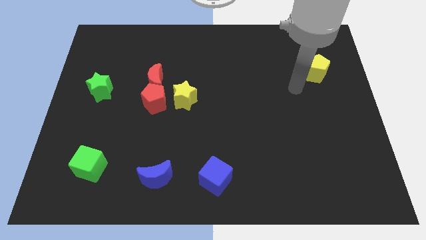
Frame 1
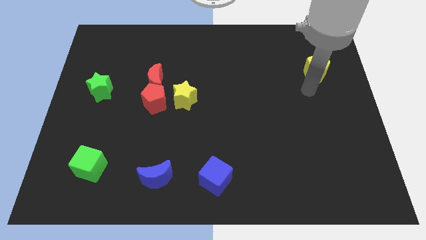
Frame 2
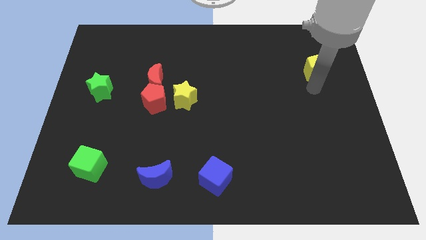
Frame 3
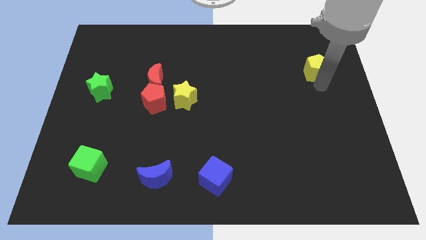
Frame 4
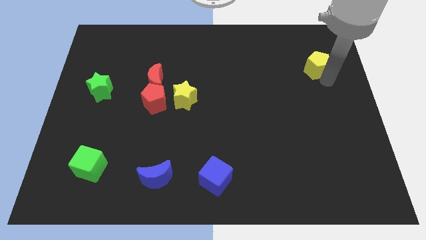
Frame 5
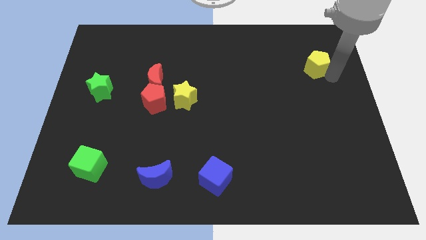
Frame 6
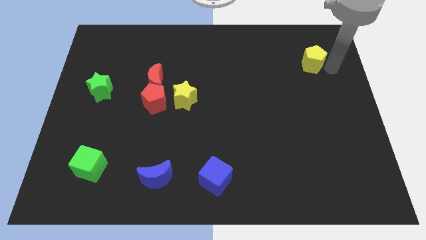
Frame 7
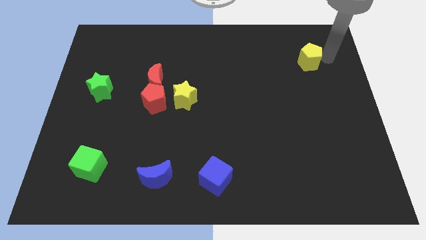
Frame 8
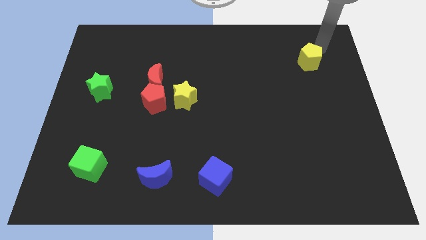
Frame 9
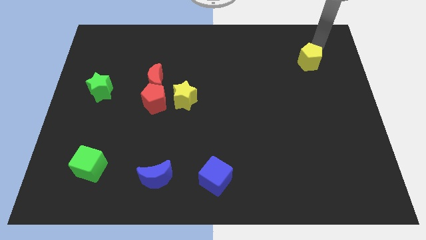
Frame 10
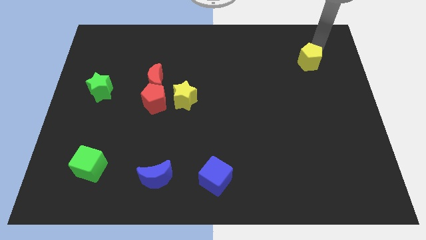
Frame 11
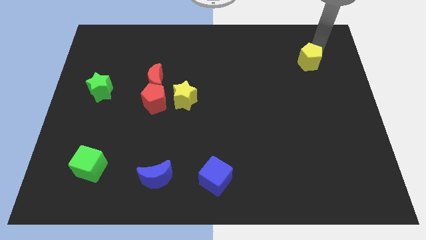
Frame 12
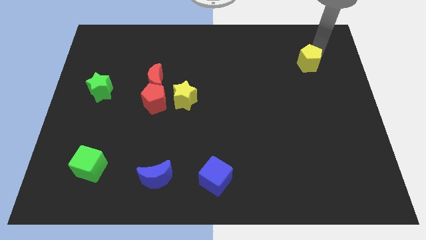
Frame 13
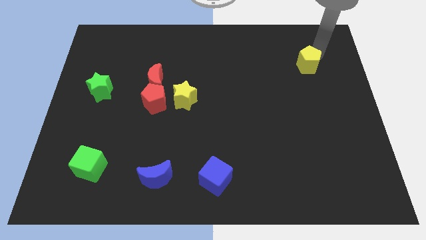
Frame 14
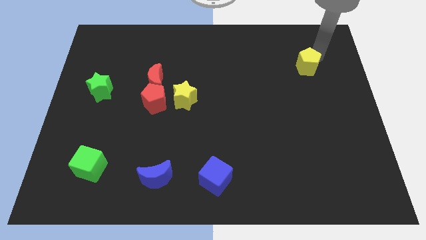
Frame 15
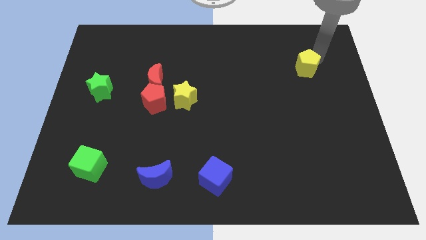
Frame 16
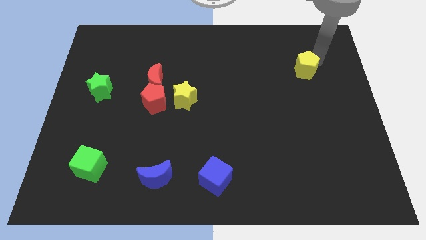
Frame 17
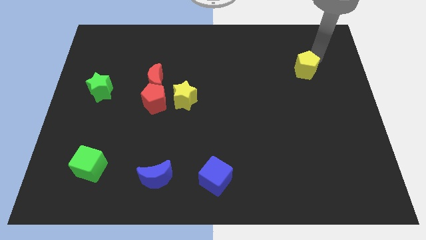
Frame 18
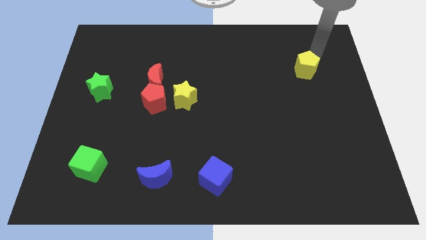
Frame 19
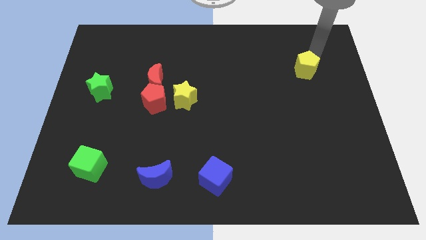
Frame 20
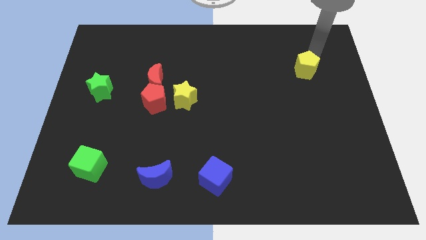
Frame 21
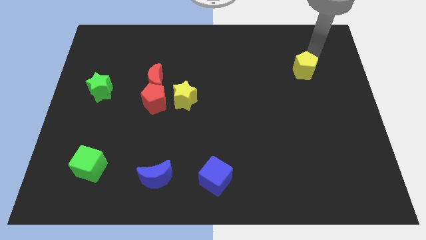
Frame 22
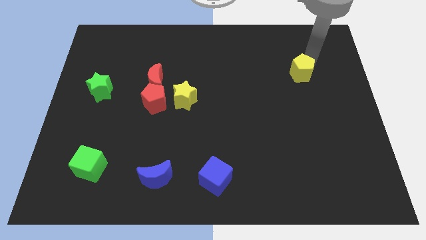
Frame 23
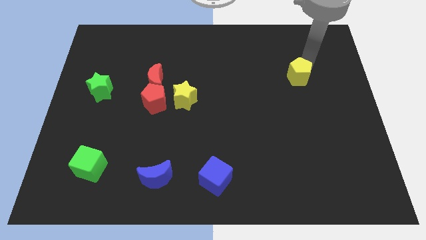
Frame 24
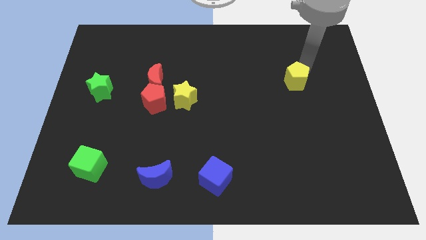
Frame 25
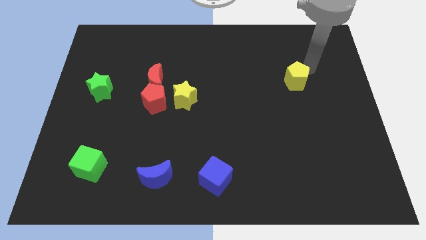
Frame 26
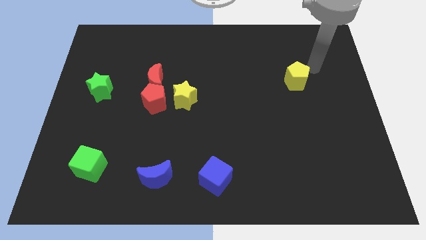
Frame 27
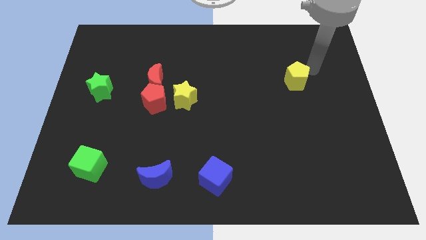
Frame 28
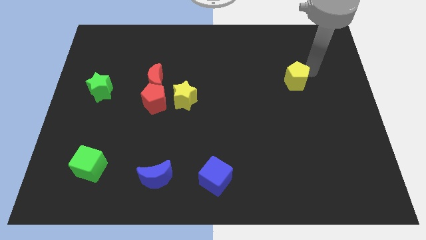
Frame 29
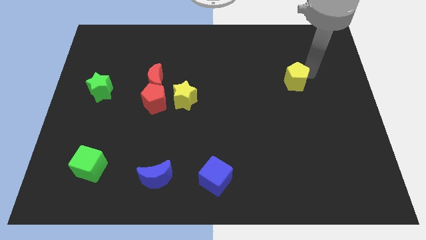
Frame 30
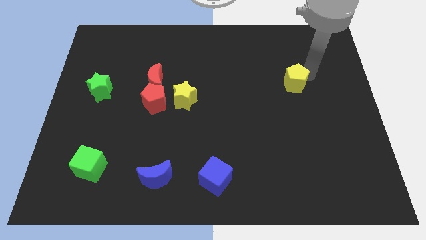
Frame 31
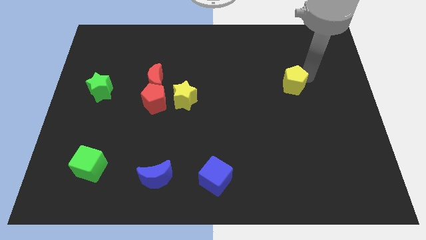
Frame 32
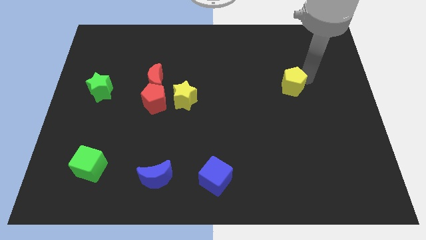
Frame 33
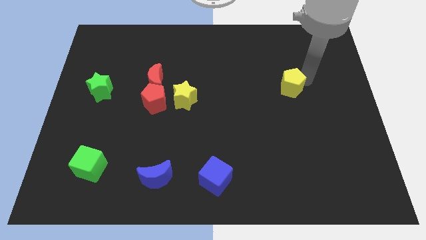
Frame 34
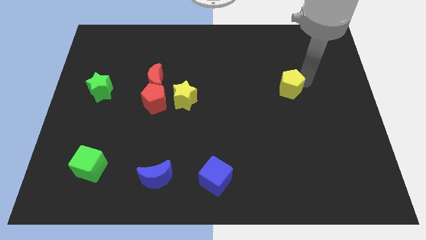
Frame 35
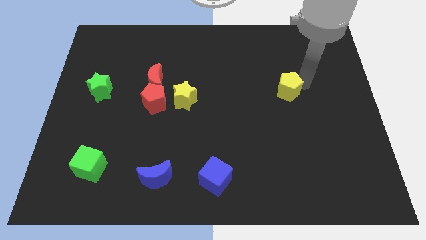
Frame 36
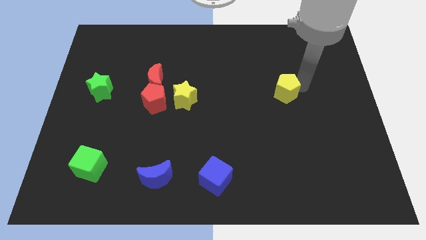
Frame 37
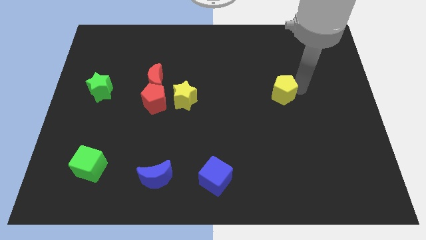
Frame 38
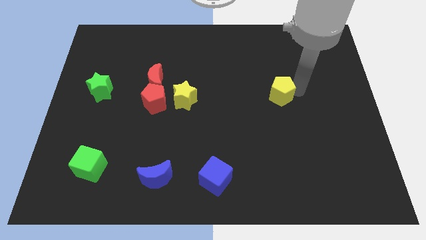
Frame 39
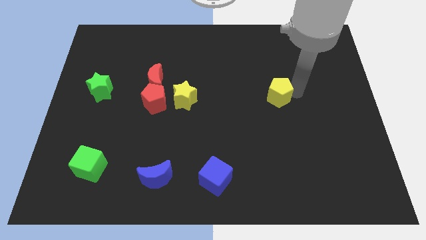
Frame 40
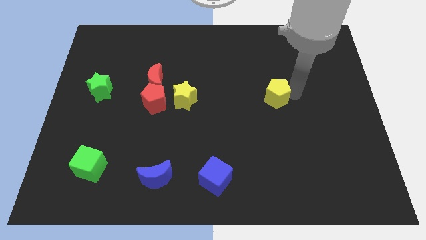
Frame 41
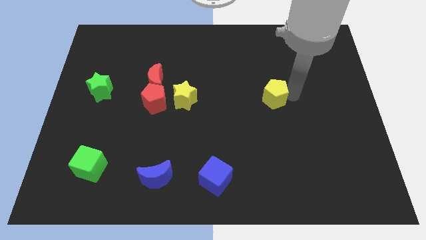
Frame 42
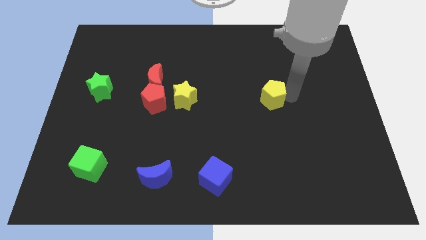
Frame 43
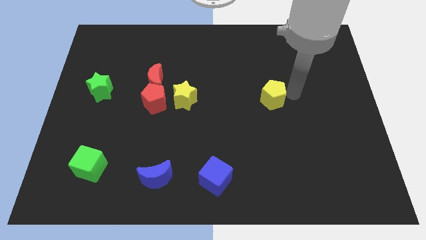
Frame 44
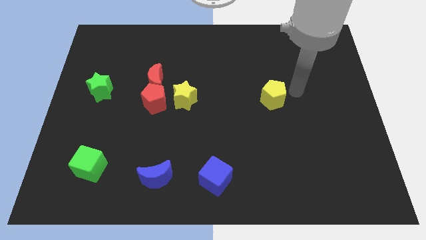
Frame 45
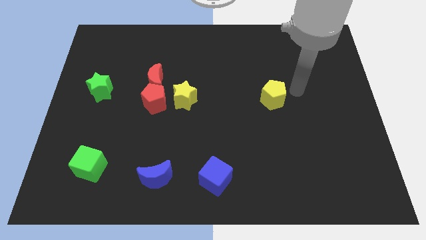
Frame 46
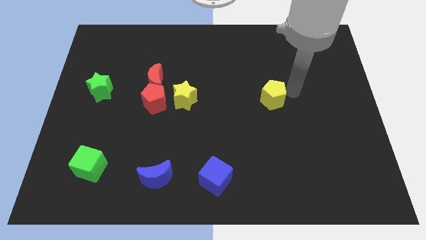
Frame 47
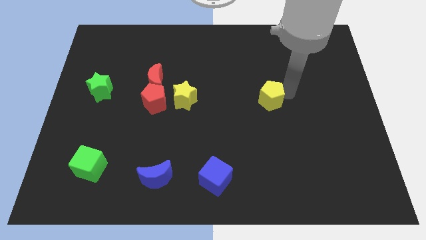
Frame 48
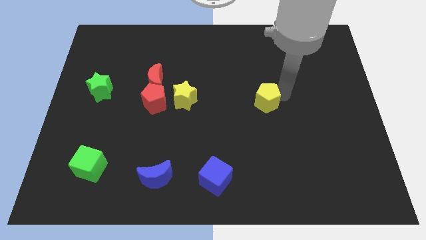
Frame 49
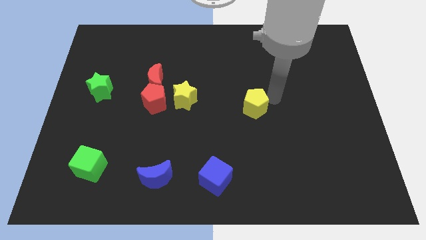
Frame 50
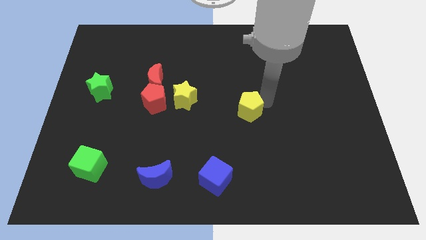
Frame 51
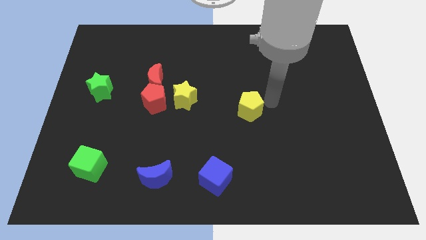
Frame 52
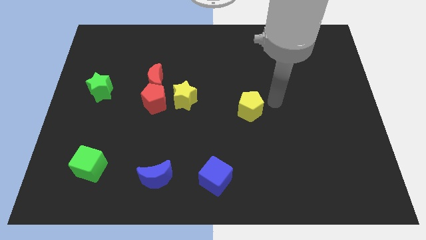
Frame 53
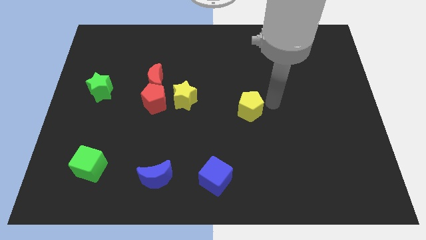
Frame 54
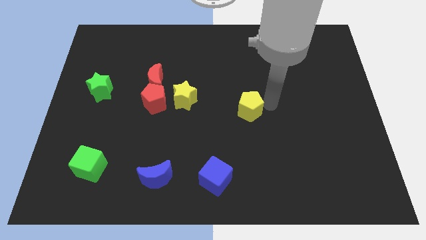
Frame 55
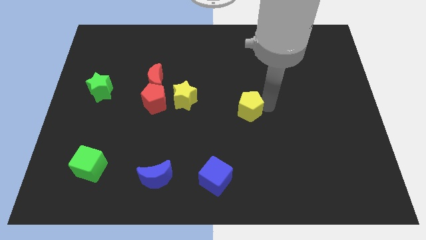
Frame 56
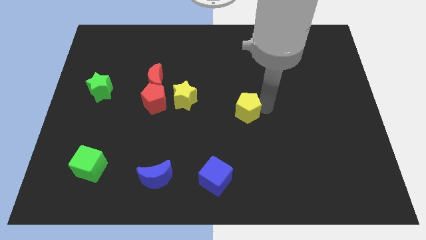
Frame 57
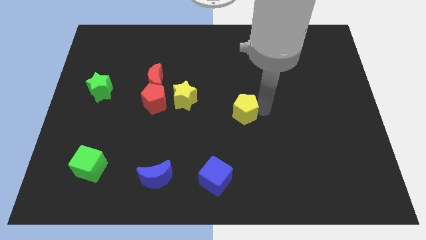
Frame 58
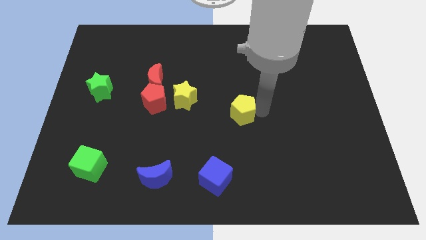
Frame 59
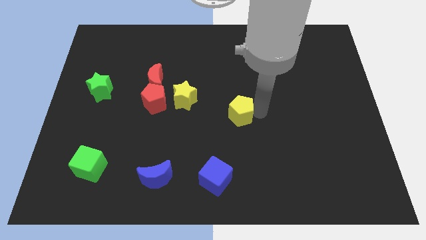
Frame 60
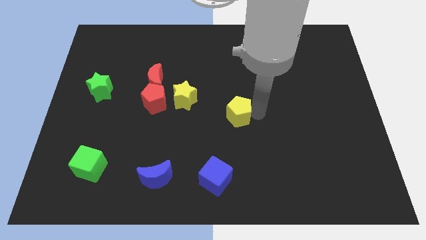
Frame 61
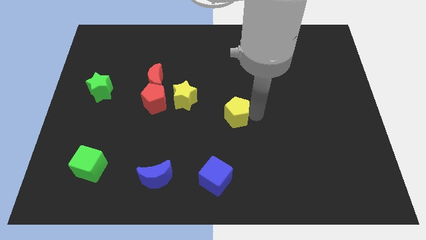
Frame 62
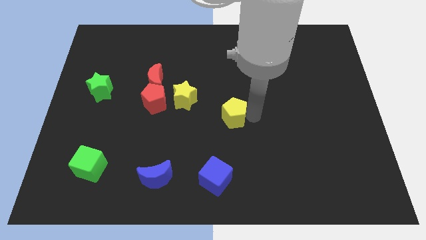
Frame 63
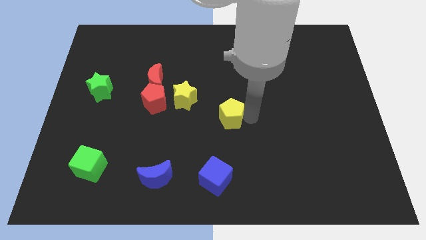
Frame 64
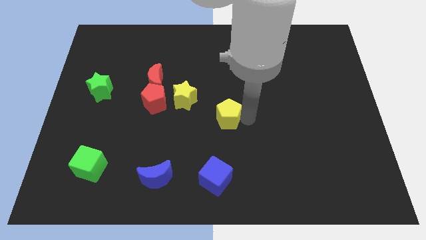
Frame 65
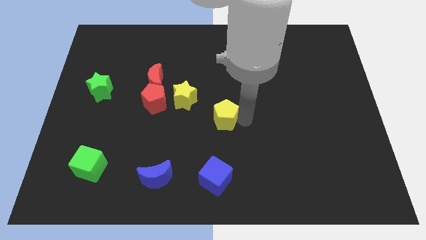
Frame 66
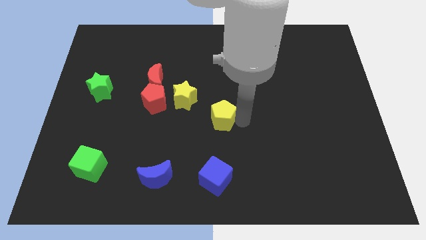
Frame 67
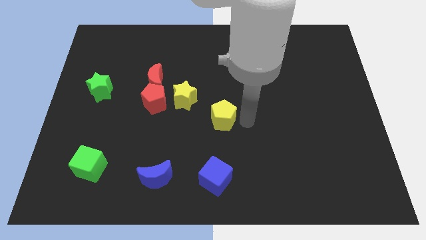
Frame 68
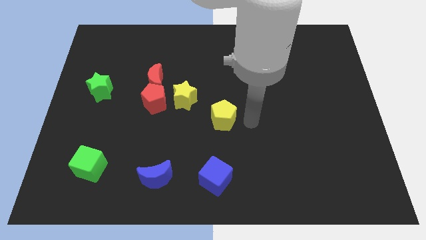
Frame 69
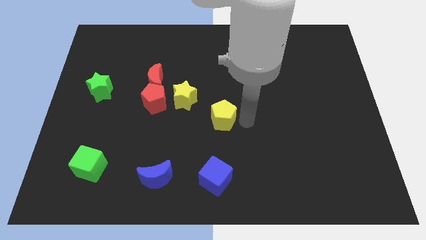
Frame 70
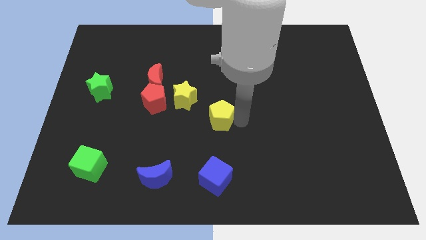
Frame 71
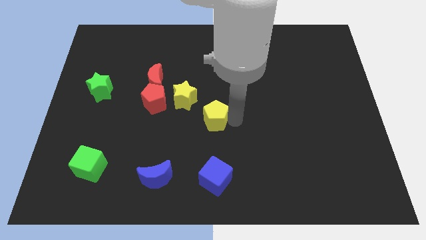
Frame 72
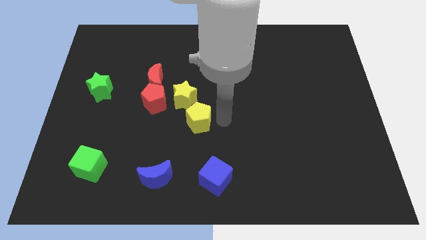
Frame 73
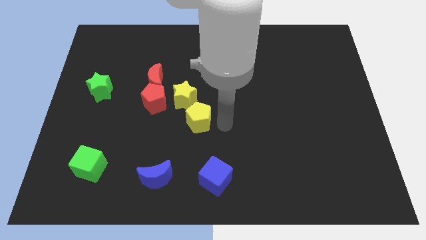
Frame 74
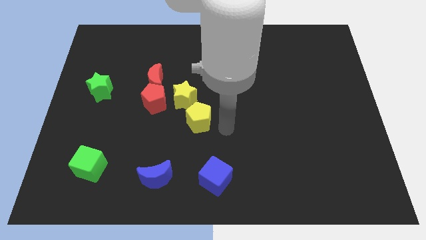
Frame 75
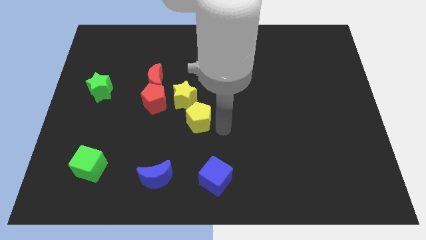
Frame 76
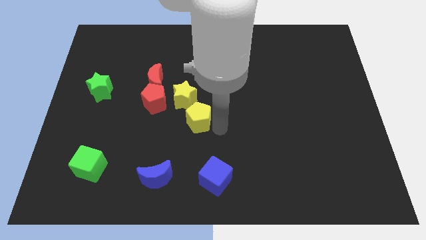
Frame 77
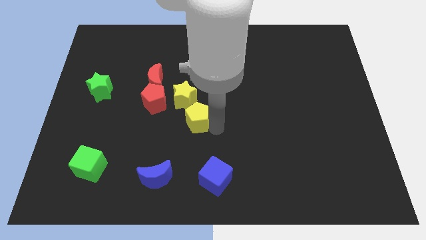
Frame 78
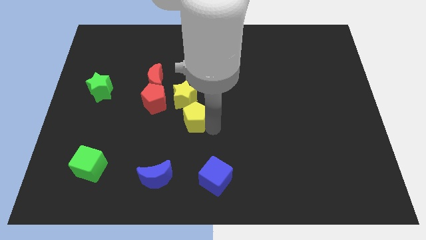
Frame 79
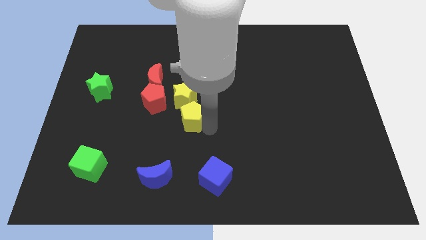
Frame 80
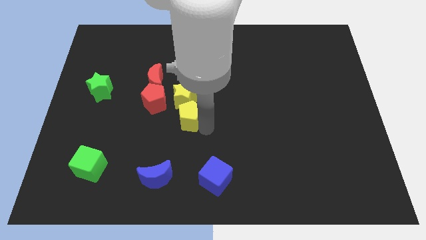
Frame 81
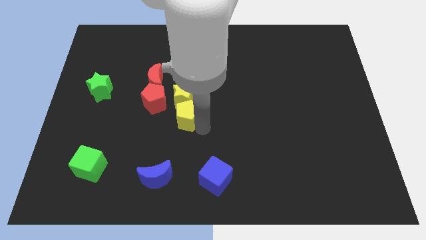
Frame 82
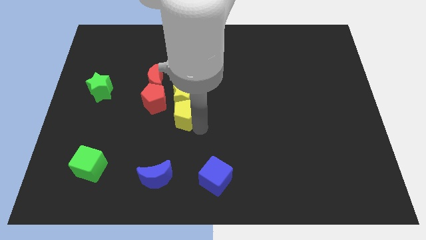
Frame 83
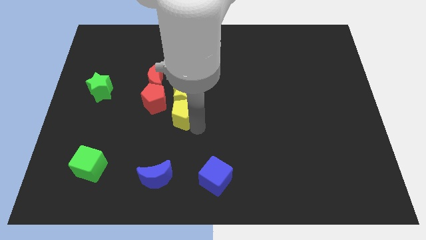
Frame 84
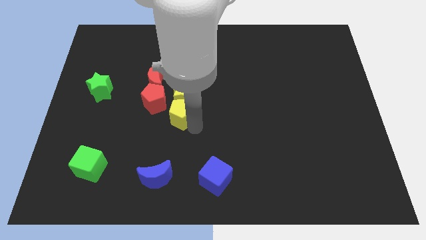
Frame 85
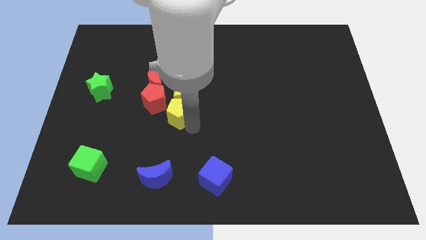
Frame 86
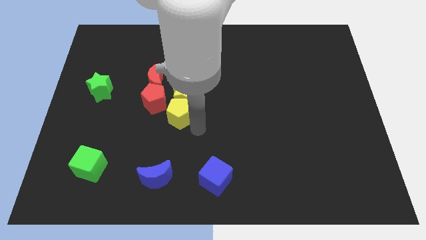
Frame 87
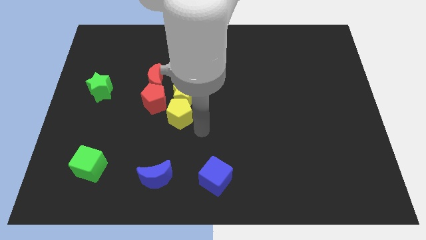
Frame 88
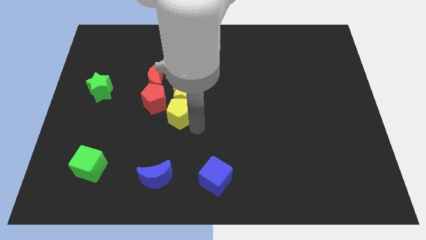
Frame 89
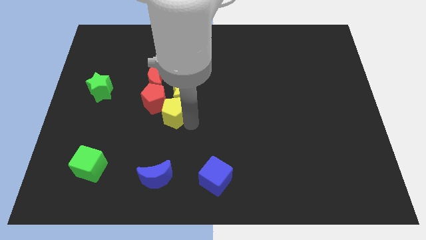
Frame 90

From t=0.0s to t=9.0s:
slide the yellow pentagon towards the red pentagon
